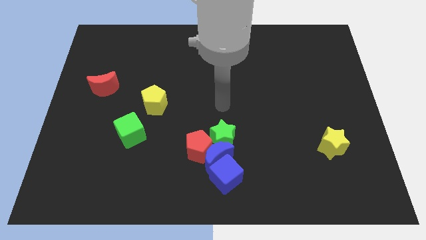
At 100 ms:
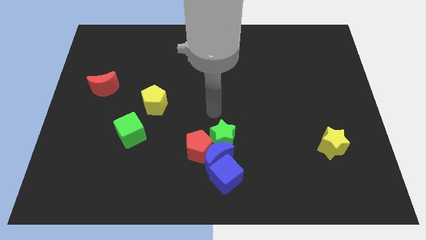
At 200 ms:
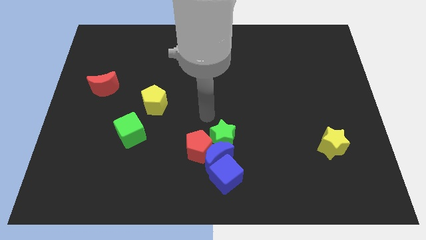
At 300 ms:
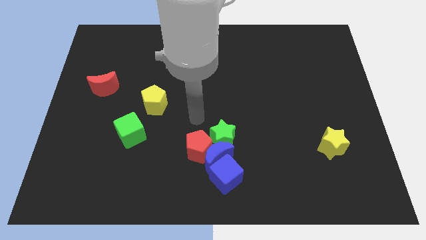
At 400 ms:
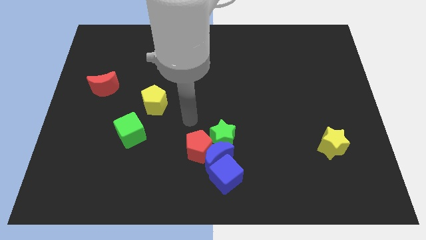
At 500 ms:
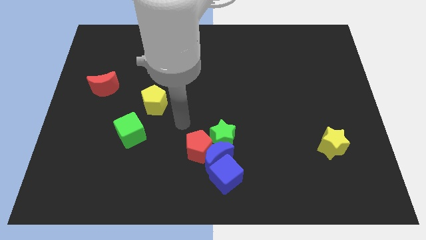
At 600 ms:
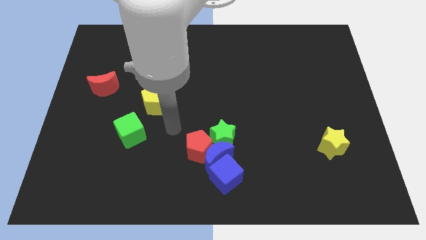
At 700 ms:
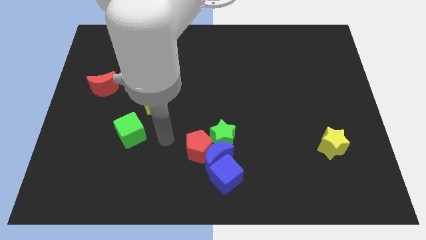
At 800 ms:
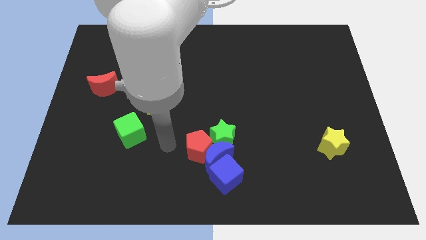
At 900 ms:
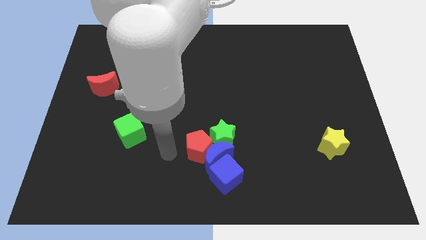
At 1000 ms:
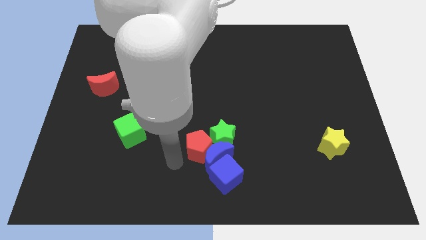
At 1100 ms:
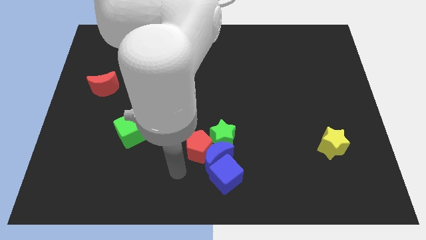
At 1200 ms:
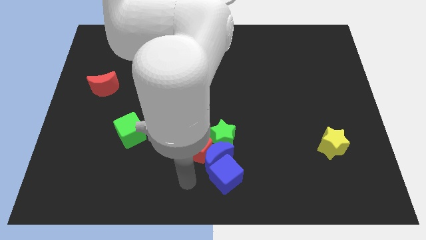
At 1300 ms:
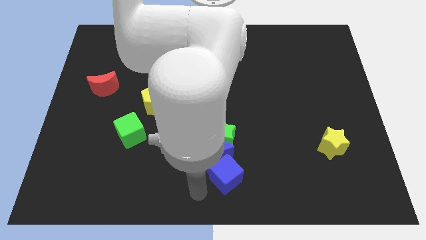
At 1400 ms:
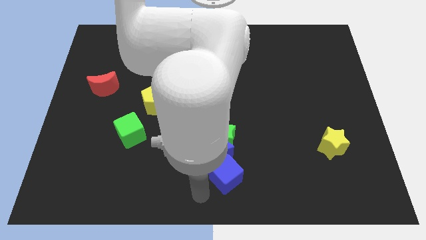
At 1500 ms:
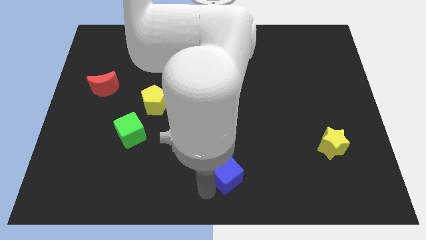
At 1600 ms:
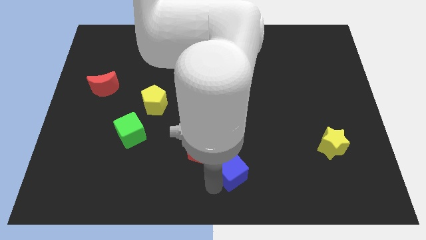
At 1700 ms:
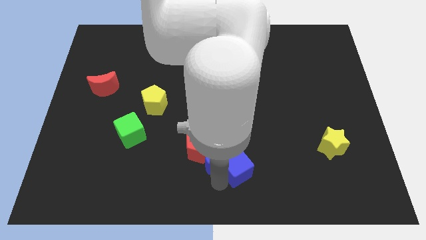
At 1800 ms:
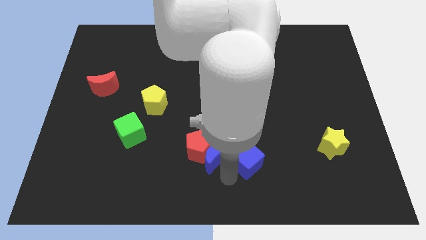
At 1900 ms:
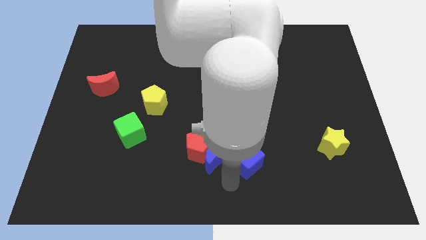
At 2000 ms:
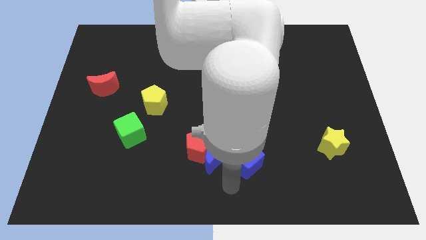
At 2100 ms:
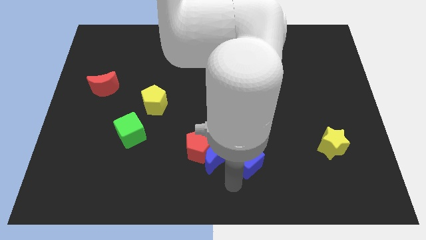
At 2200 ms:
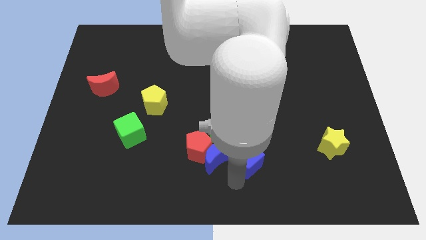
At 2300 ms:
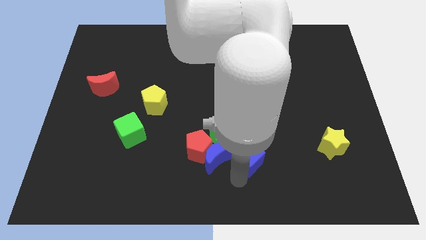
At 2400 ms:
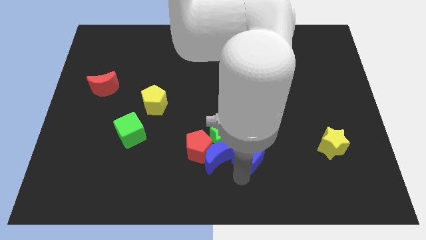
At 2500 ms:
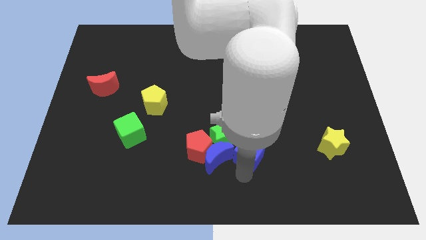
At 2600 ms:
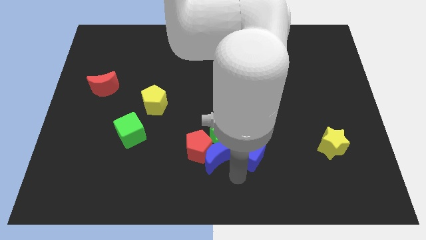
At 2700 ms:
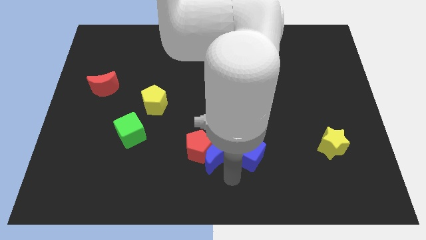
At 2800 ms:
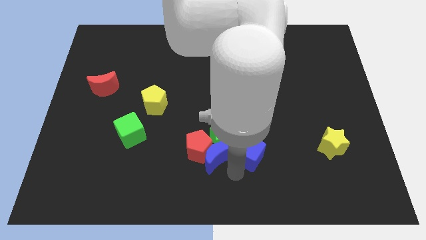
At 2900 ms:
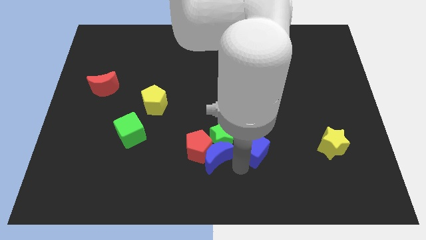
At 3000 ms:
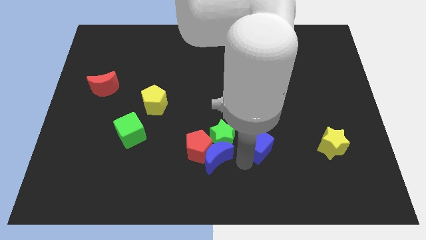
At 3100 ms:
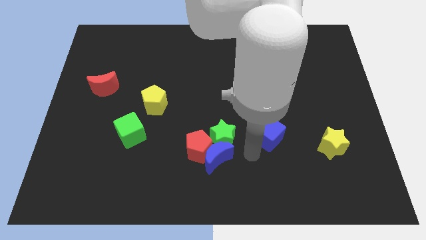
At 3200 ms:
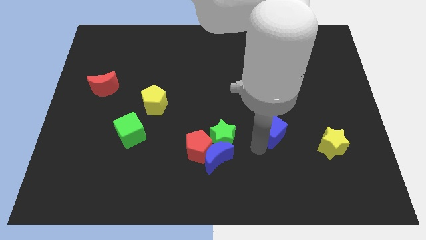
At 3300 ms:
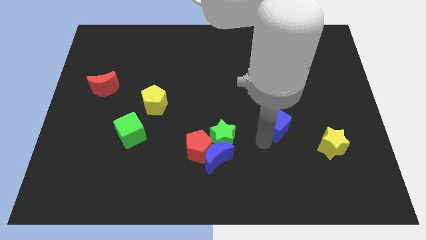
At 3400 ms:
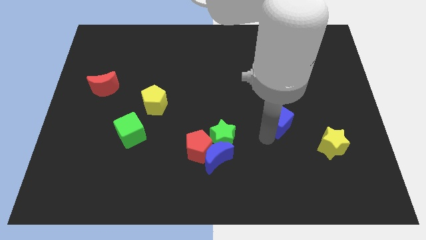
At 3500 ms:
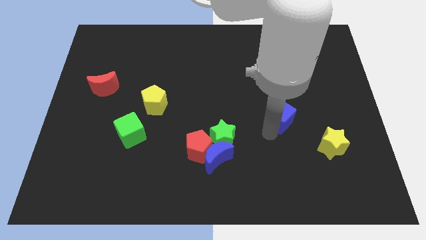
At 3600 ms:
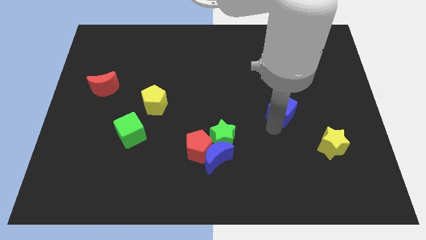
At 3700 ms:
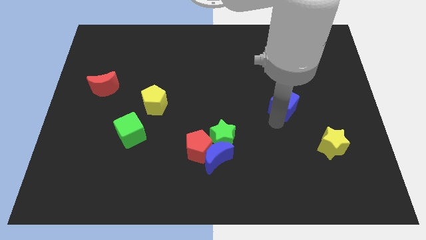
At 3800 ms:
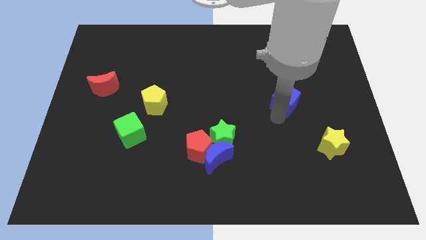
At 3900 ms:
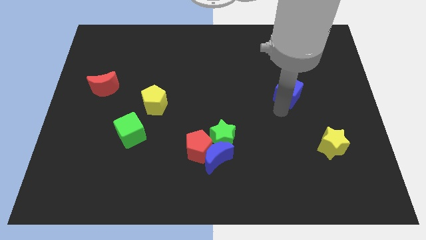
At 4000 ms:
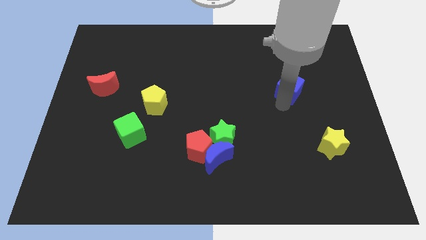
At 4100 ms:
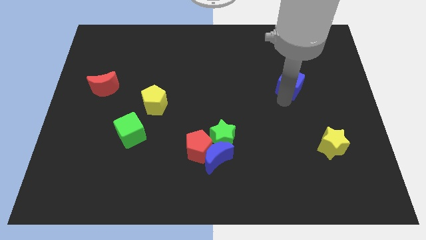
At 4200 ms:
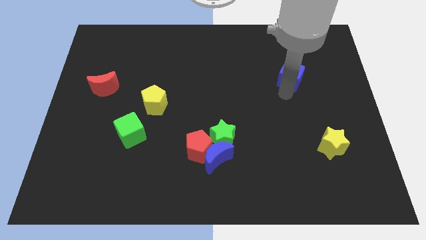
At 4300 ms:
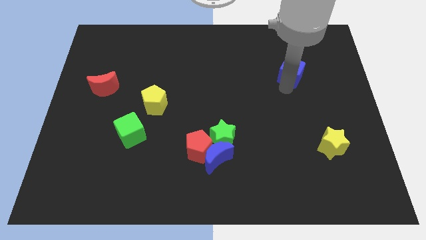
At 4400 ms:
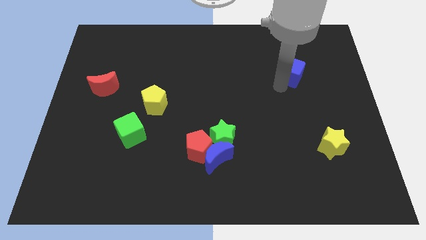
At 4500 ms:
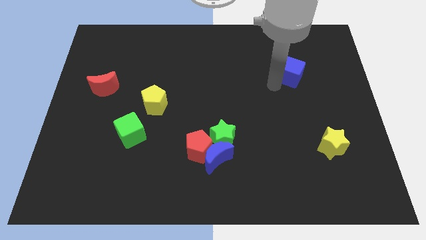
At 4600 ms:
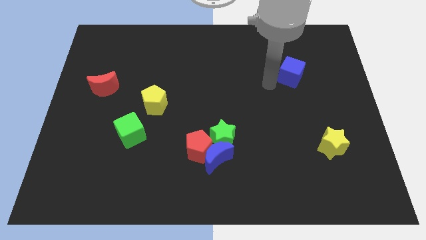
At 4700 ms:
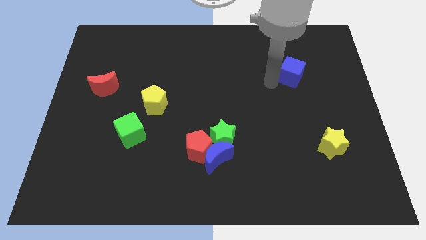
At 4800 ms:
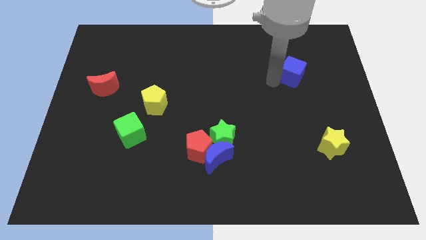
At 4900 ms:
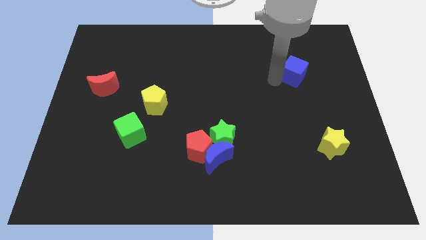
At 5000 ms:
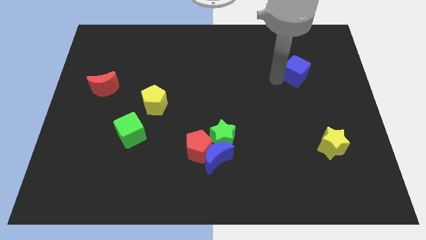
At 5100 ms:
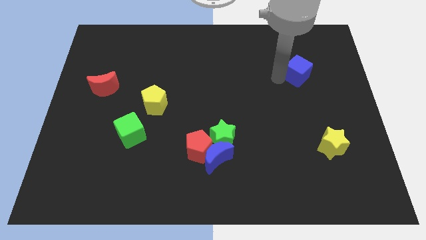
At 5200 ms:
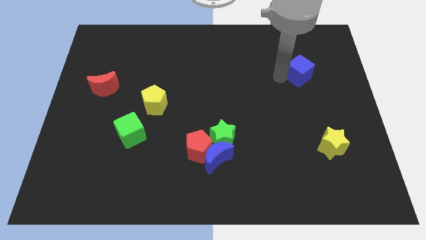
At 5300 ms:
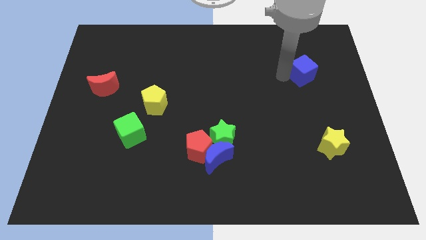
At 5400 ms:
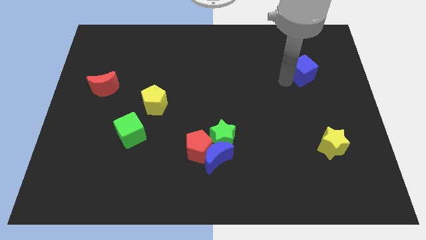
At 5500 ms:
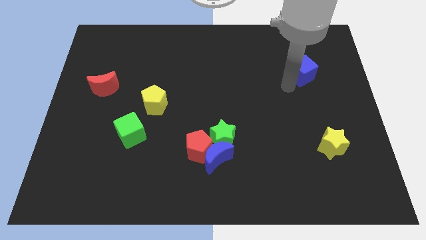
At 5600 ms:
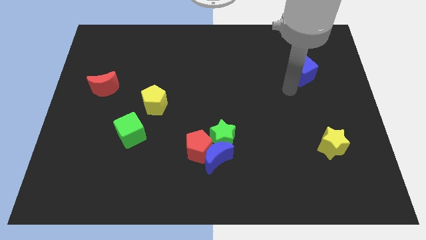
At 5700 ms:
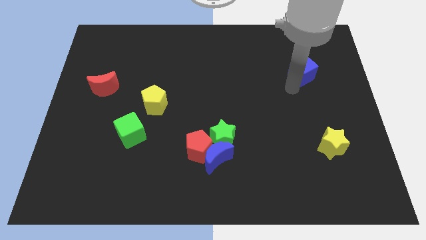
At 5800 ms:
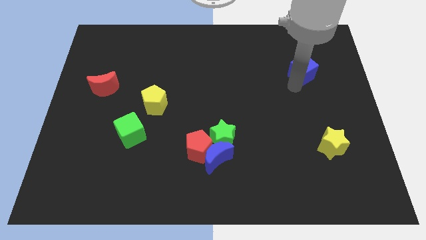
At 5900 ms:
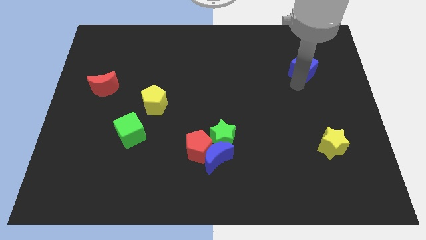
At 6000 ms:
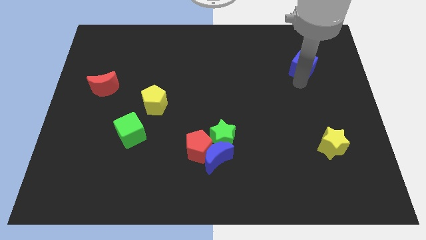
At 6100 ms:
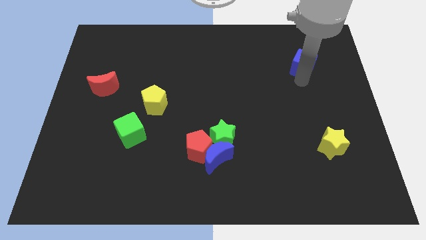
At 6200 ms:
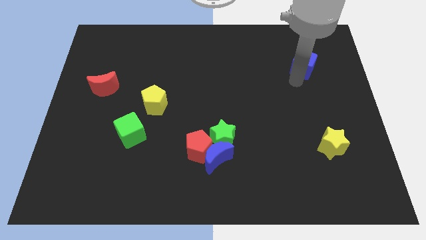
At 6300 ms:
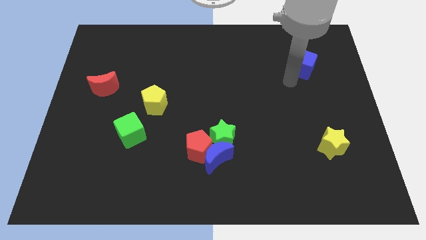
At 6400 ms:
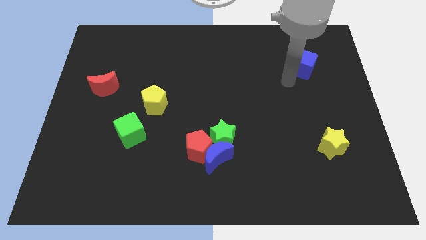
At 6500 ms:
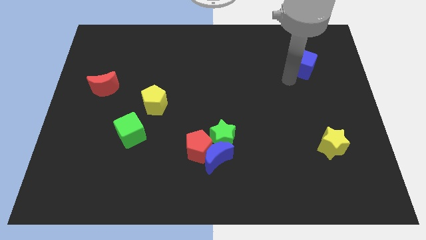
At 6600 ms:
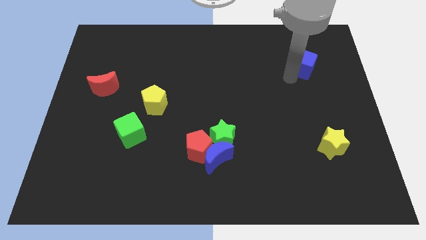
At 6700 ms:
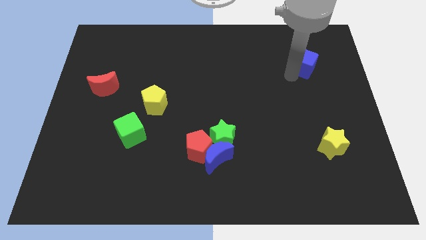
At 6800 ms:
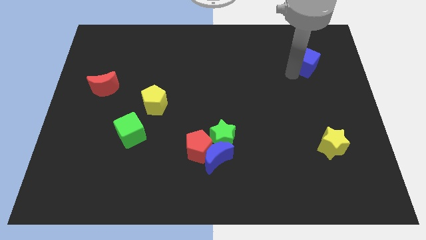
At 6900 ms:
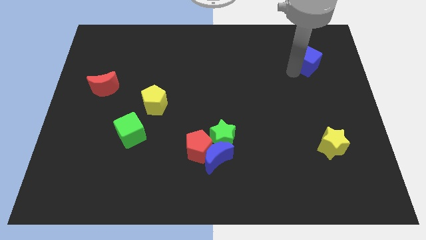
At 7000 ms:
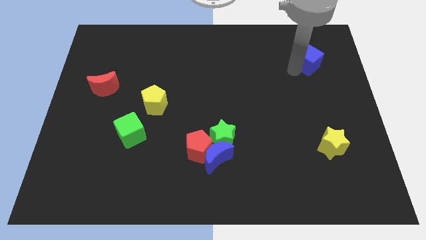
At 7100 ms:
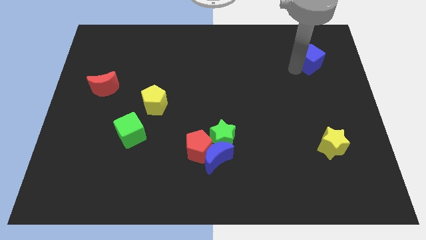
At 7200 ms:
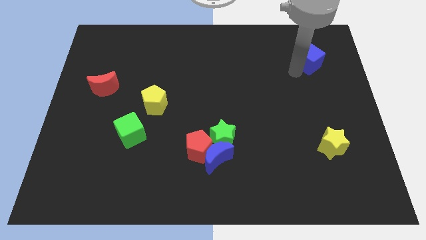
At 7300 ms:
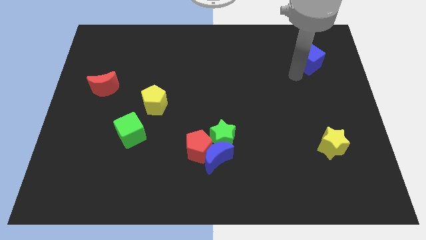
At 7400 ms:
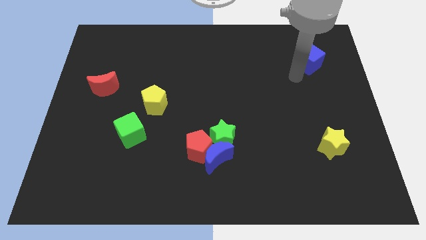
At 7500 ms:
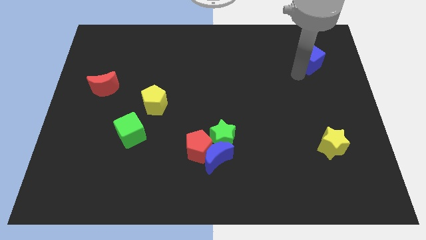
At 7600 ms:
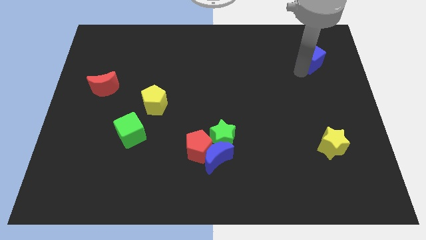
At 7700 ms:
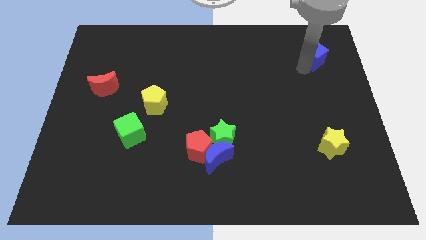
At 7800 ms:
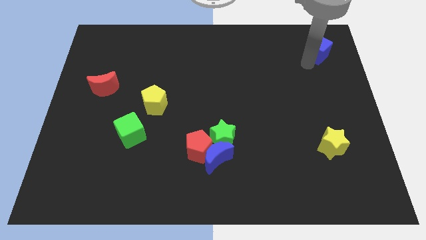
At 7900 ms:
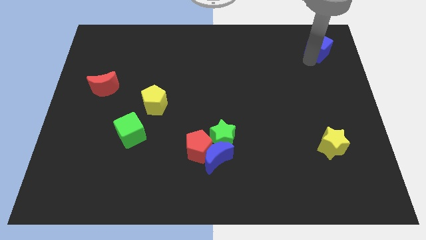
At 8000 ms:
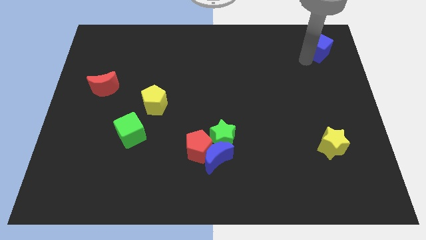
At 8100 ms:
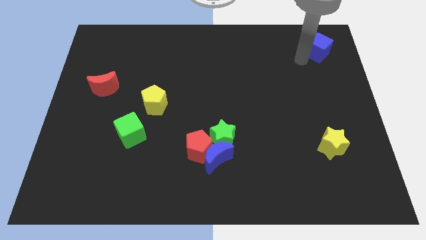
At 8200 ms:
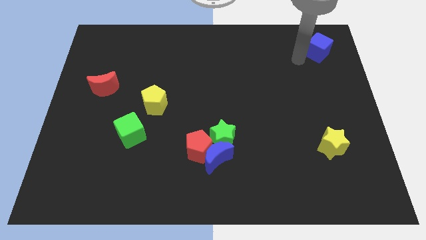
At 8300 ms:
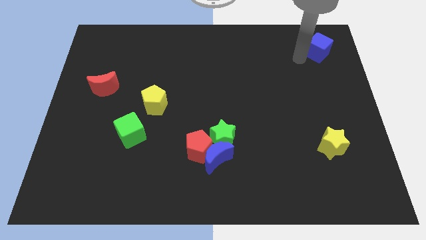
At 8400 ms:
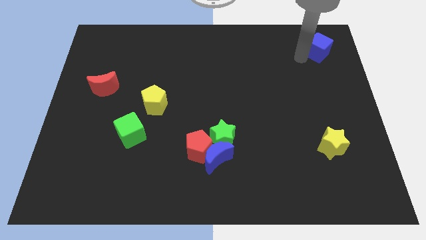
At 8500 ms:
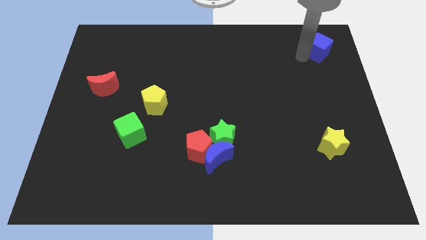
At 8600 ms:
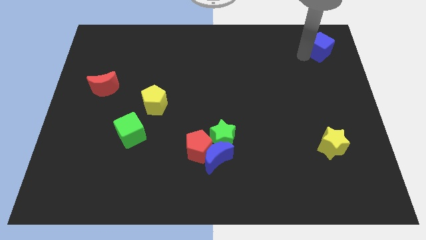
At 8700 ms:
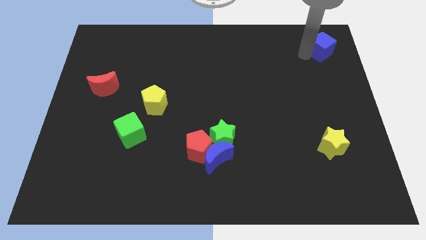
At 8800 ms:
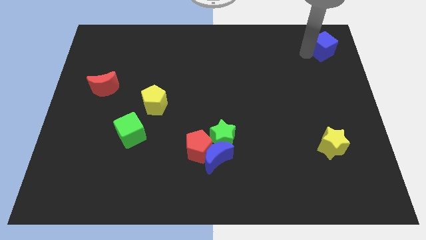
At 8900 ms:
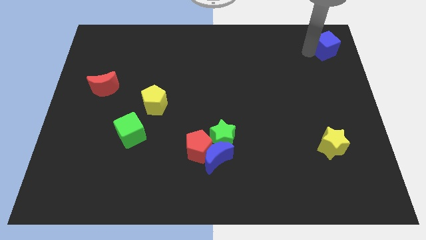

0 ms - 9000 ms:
push the blue cube to the upper right corner
